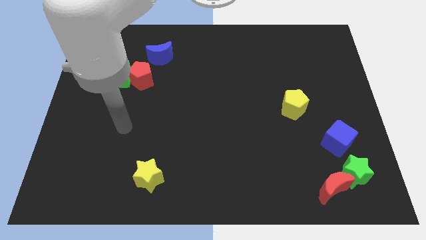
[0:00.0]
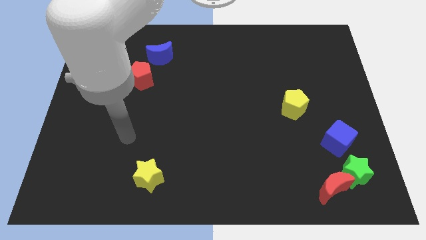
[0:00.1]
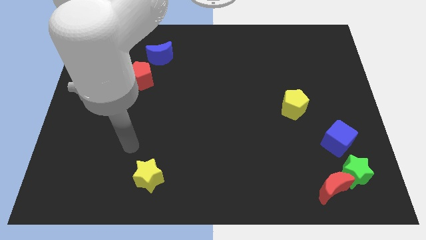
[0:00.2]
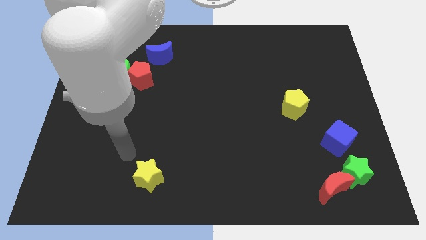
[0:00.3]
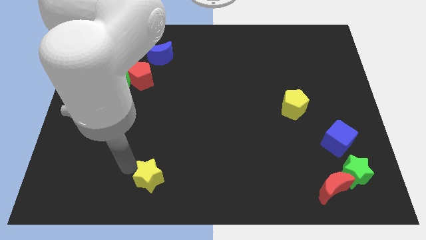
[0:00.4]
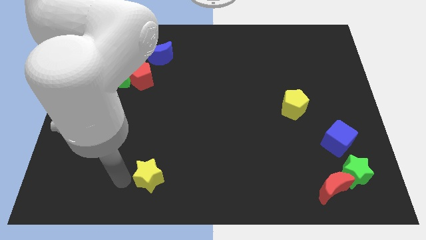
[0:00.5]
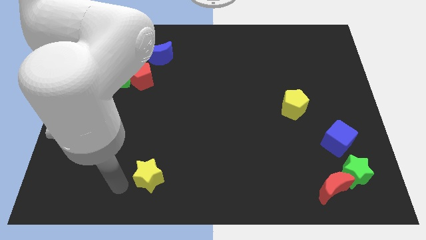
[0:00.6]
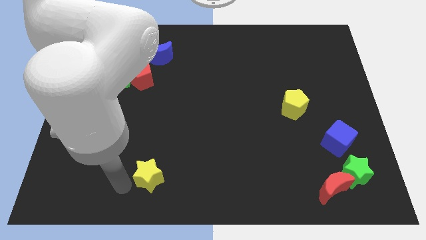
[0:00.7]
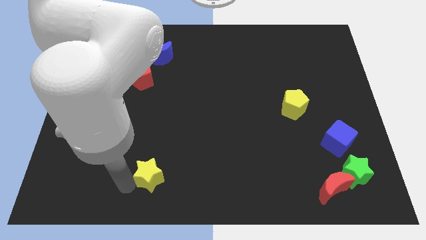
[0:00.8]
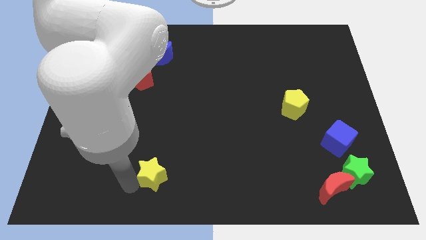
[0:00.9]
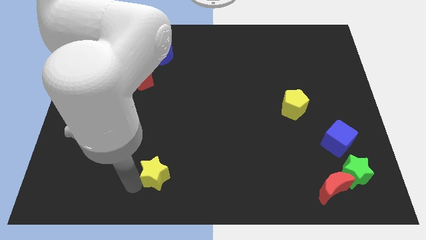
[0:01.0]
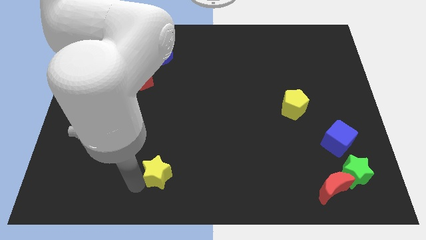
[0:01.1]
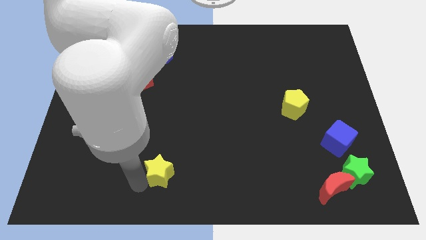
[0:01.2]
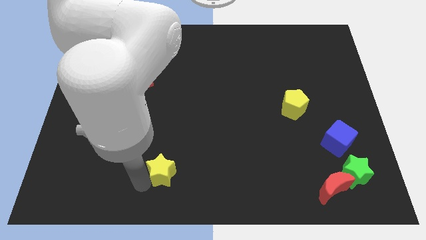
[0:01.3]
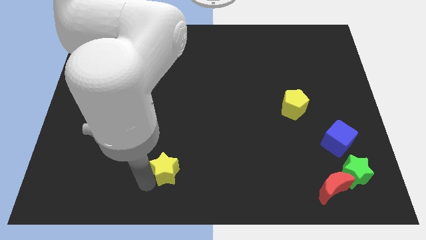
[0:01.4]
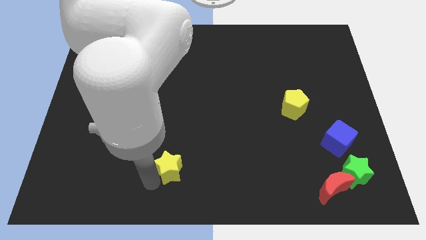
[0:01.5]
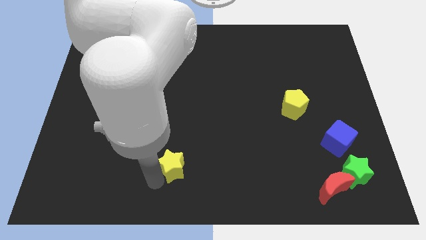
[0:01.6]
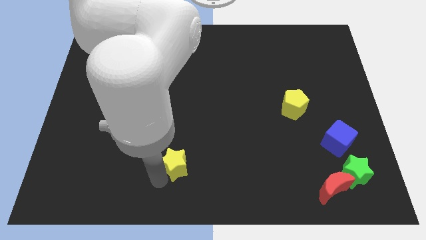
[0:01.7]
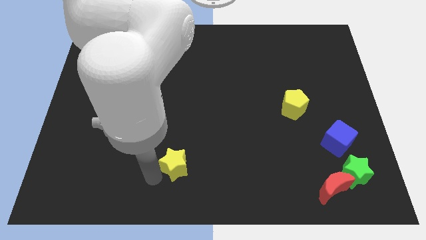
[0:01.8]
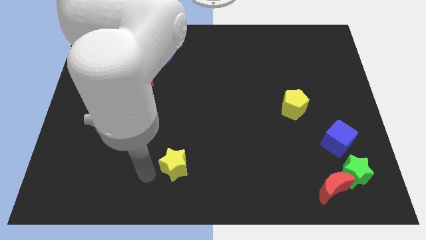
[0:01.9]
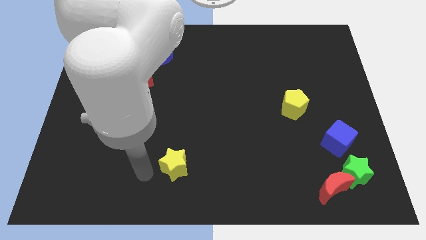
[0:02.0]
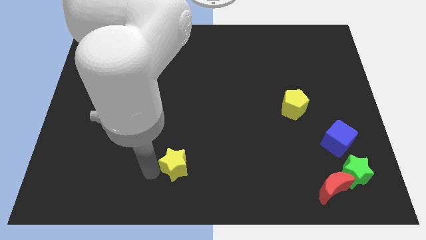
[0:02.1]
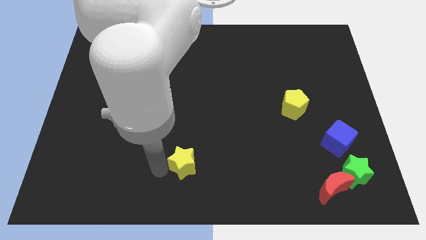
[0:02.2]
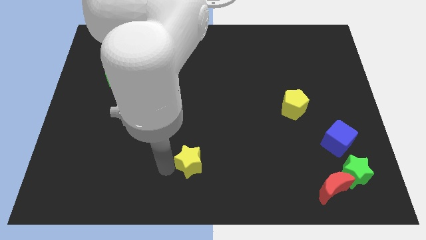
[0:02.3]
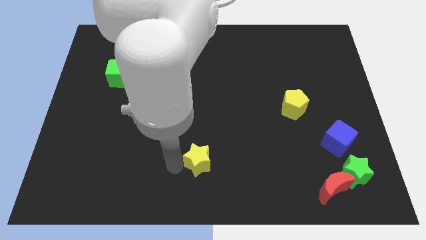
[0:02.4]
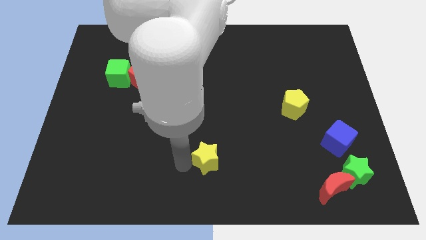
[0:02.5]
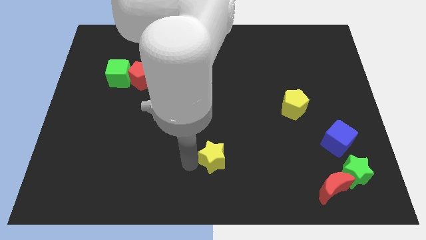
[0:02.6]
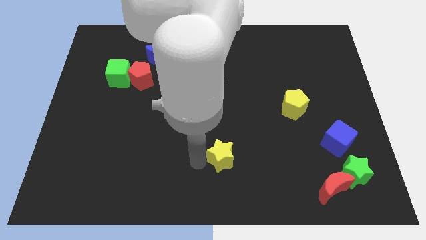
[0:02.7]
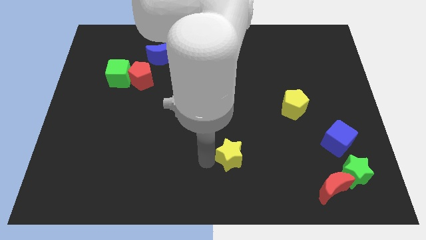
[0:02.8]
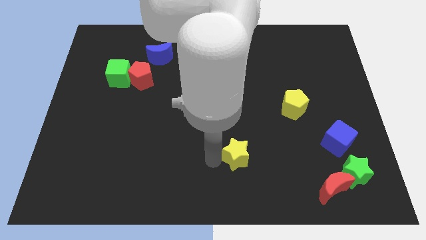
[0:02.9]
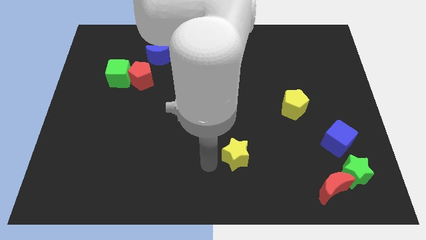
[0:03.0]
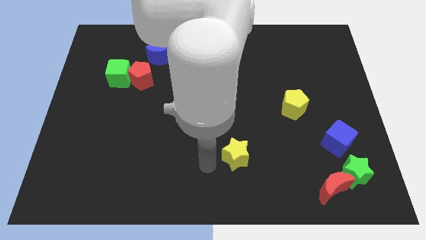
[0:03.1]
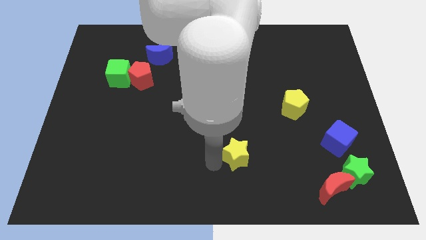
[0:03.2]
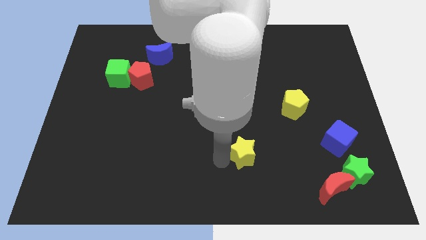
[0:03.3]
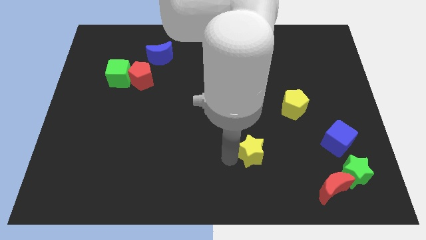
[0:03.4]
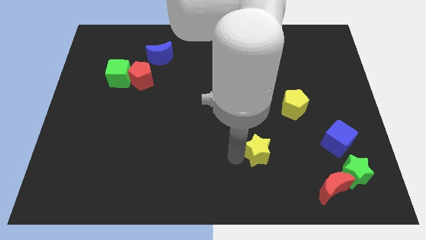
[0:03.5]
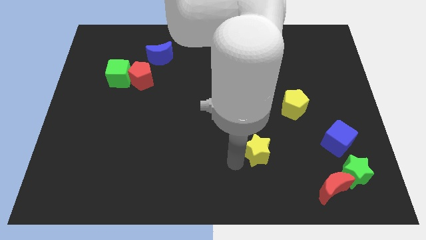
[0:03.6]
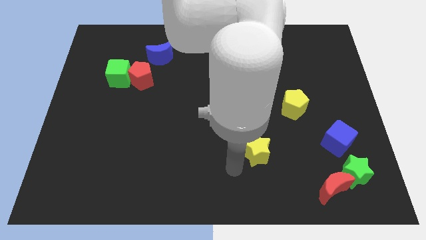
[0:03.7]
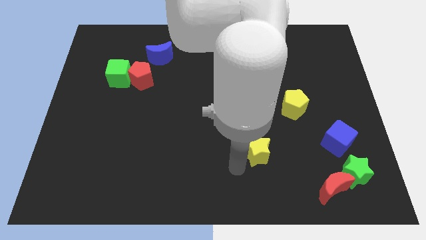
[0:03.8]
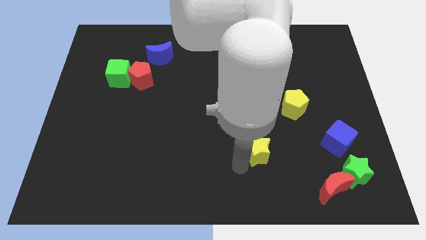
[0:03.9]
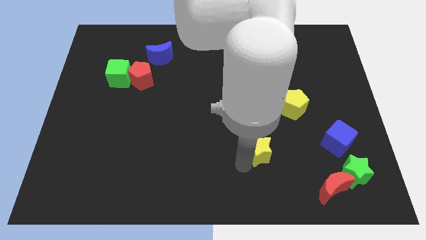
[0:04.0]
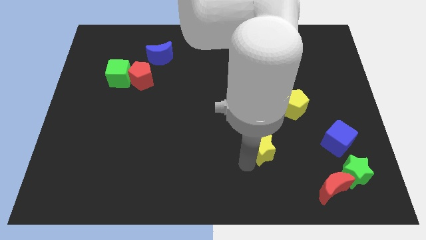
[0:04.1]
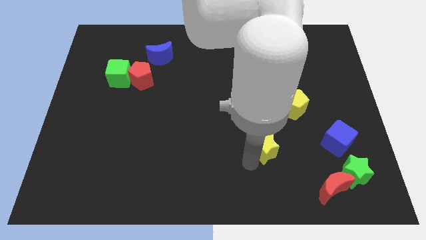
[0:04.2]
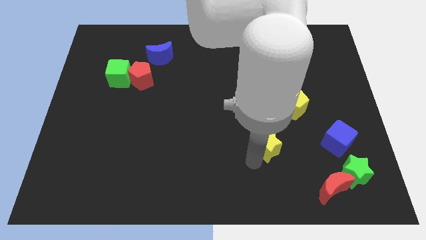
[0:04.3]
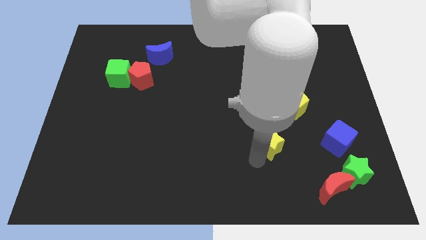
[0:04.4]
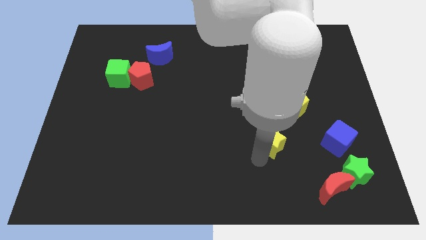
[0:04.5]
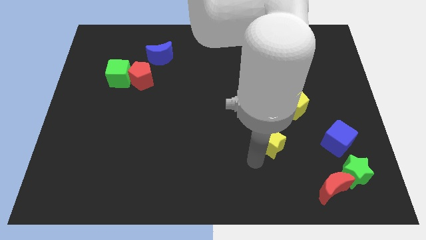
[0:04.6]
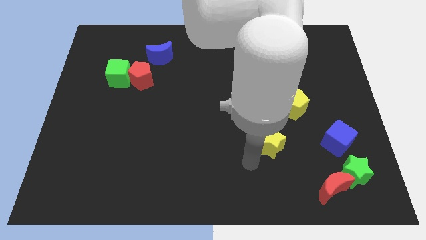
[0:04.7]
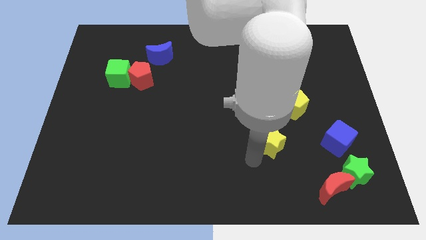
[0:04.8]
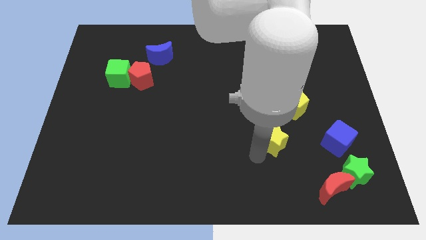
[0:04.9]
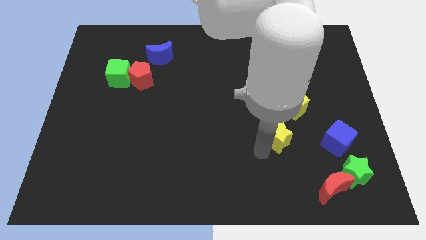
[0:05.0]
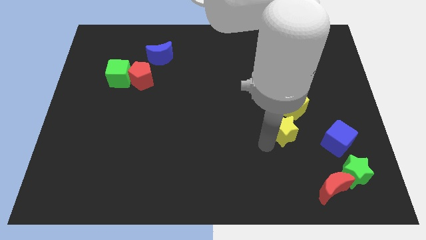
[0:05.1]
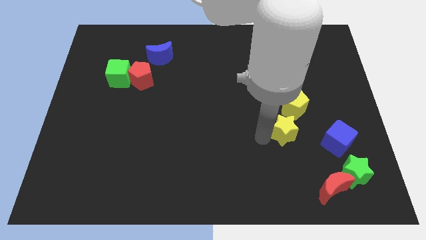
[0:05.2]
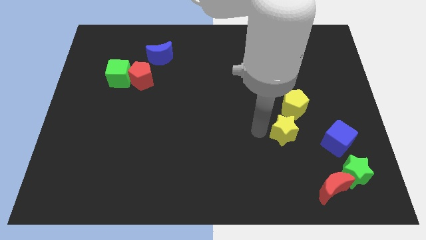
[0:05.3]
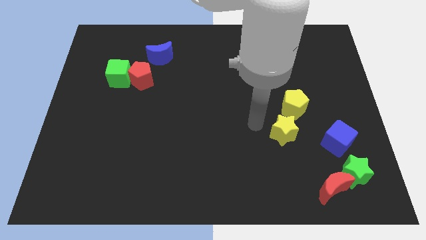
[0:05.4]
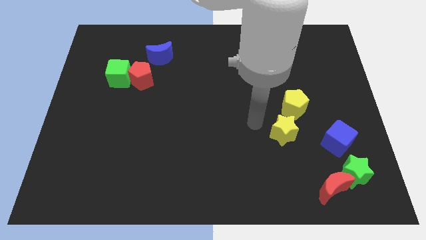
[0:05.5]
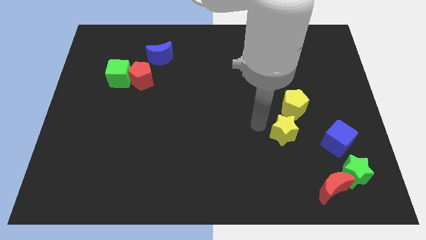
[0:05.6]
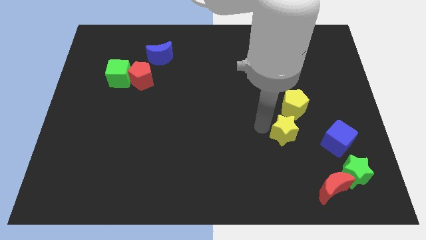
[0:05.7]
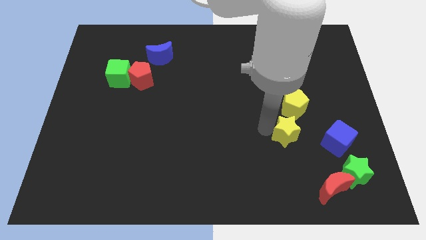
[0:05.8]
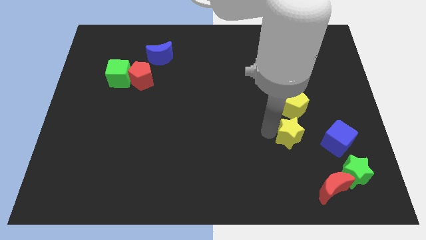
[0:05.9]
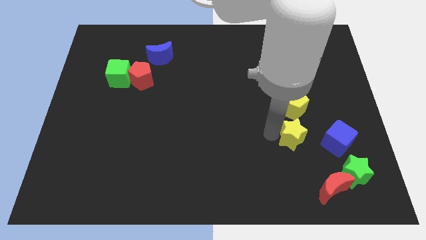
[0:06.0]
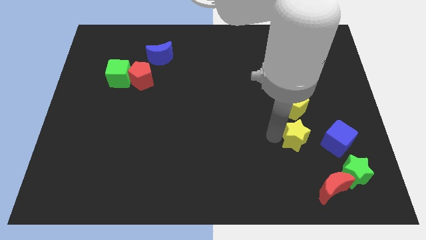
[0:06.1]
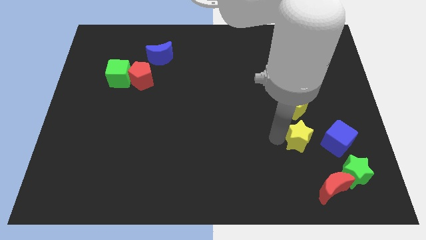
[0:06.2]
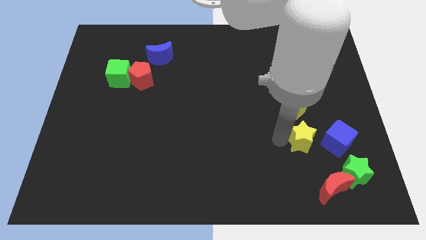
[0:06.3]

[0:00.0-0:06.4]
slide the yellow star to the top side of the red moon

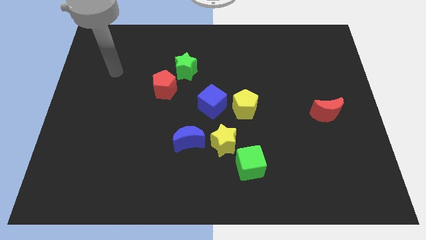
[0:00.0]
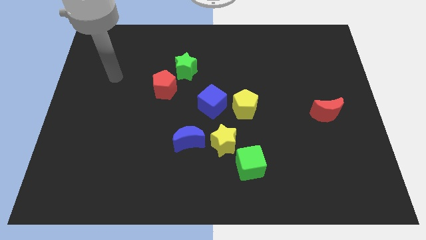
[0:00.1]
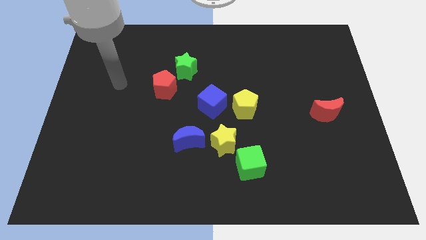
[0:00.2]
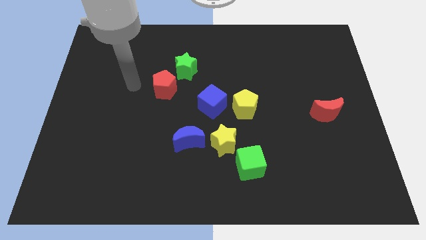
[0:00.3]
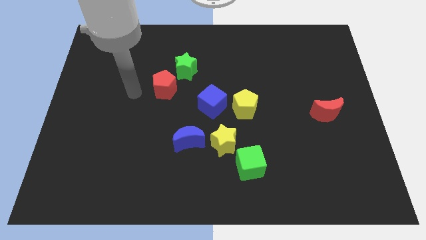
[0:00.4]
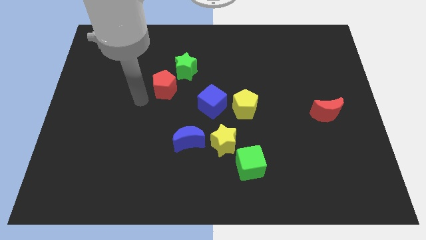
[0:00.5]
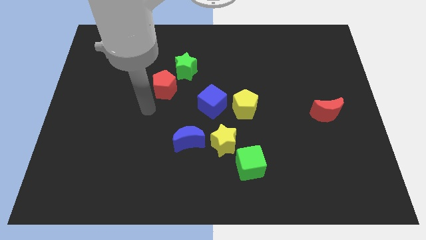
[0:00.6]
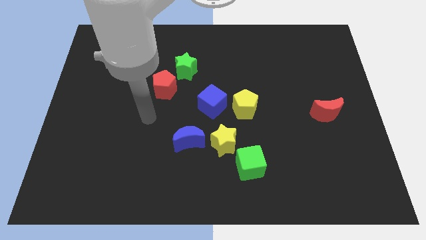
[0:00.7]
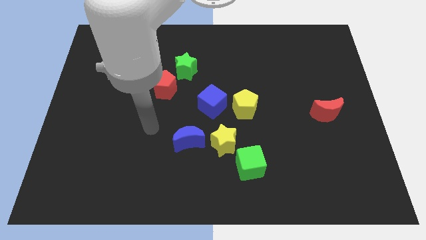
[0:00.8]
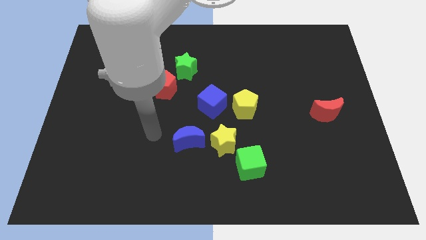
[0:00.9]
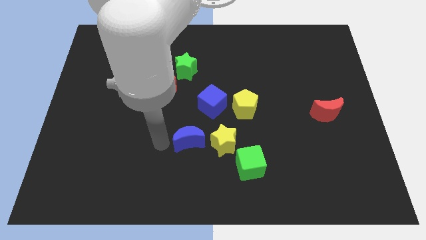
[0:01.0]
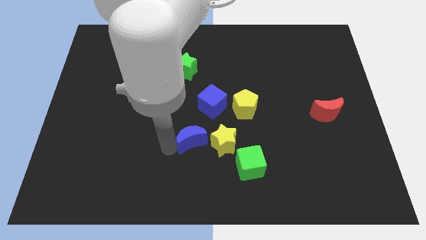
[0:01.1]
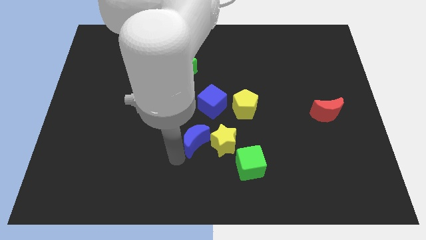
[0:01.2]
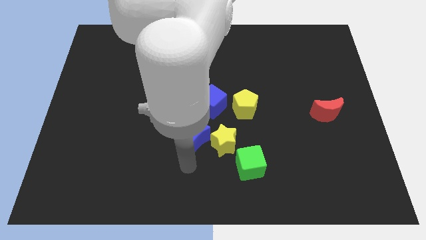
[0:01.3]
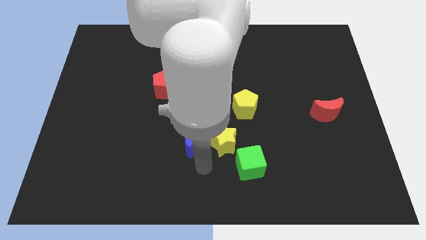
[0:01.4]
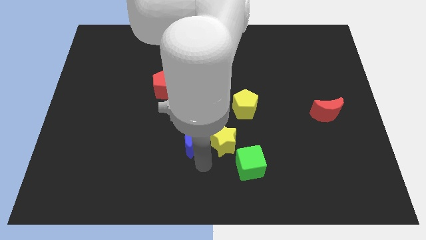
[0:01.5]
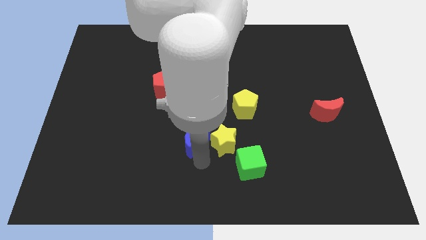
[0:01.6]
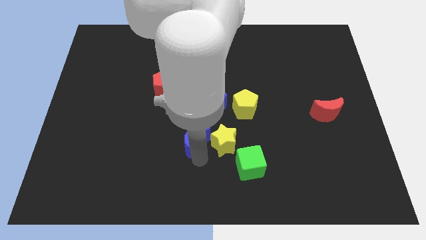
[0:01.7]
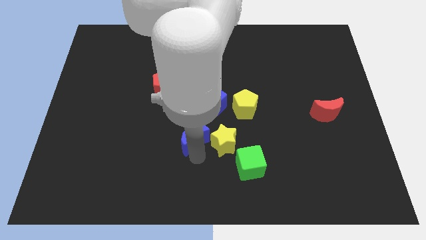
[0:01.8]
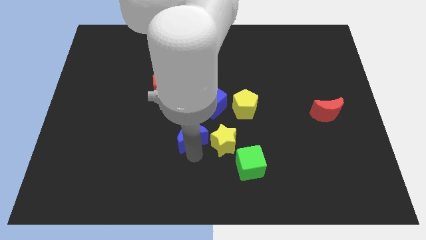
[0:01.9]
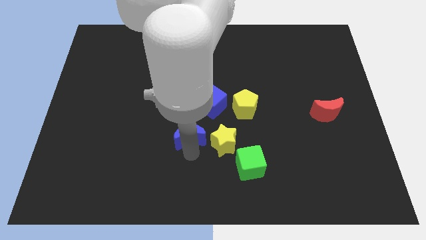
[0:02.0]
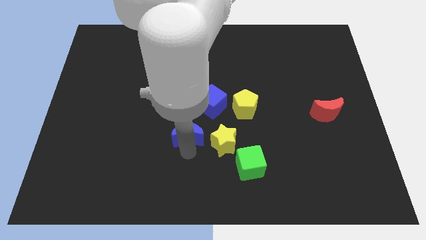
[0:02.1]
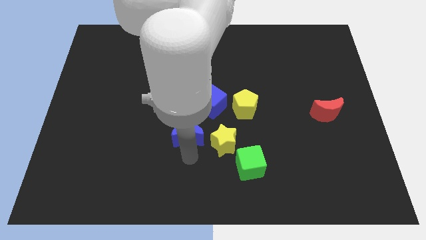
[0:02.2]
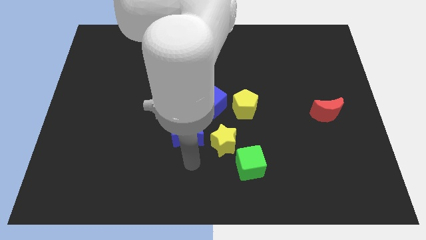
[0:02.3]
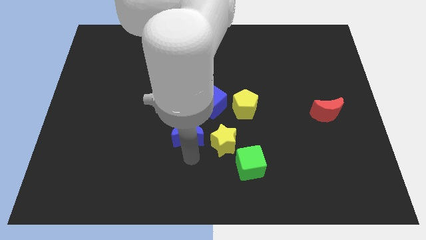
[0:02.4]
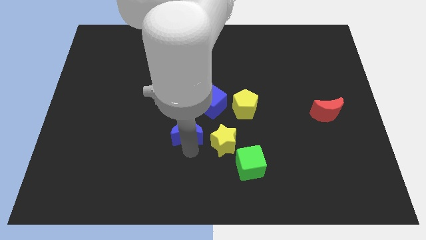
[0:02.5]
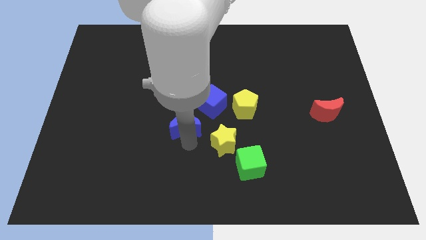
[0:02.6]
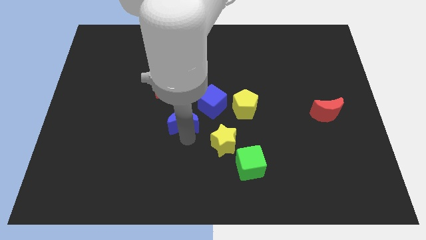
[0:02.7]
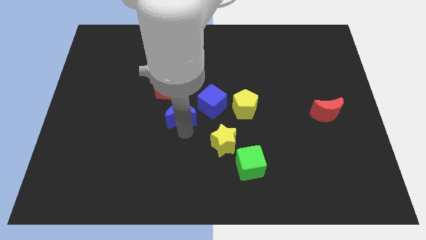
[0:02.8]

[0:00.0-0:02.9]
push the blue moon to the bottom side of the green star
